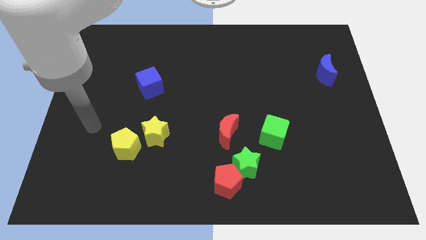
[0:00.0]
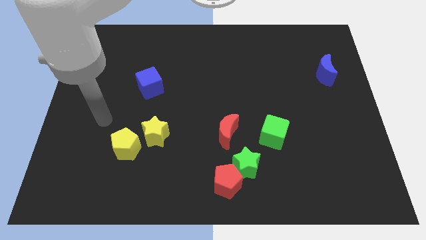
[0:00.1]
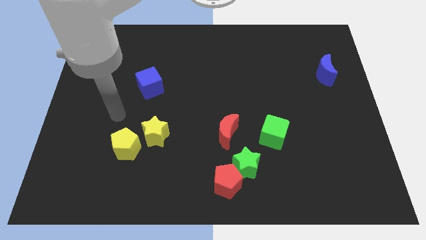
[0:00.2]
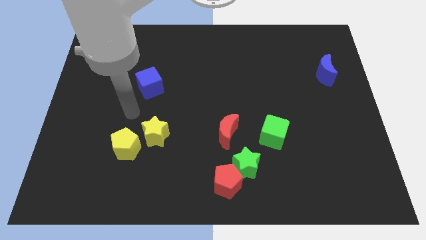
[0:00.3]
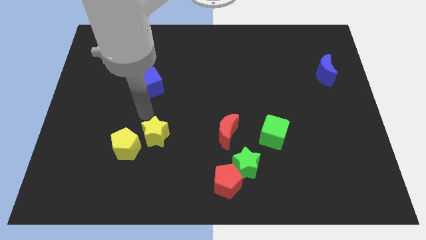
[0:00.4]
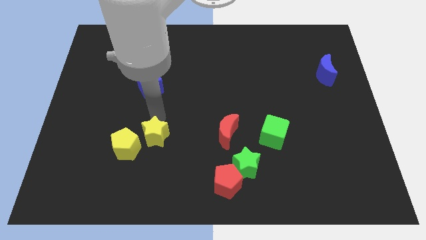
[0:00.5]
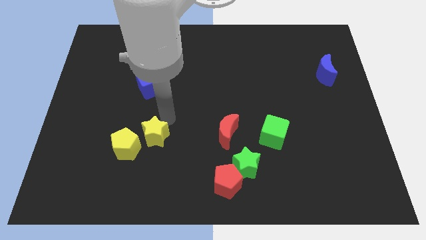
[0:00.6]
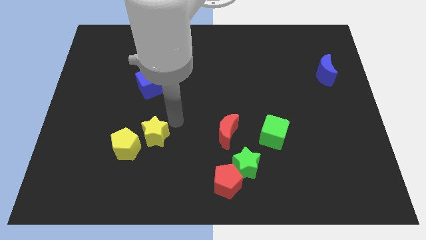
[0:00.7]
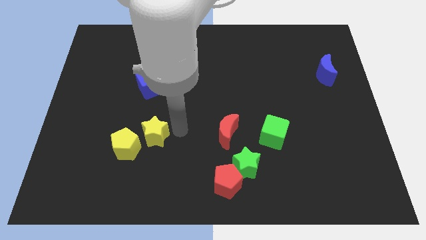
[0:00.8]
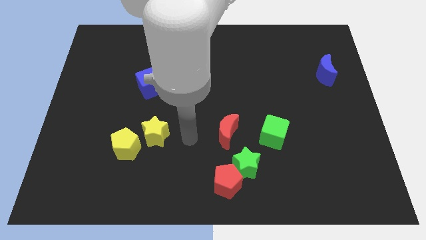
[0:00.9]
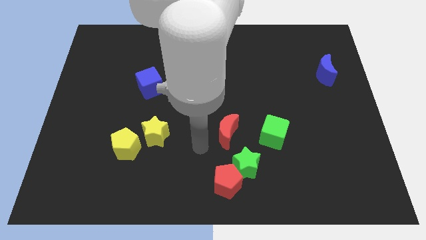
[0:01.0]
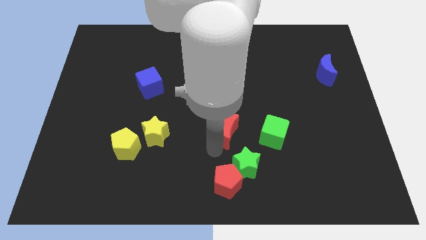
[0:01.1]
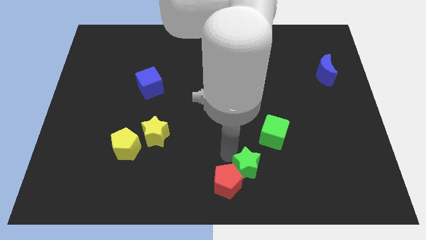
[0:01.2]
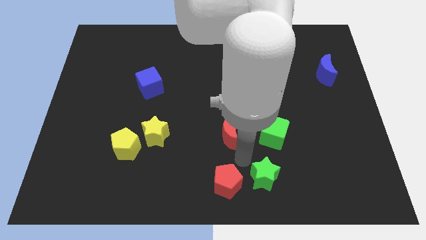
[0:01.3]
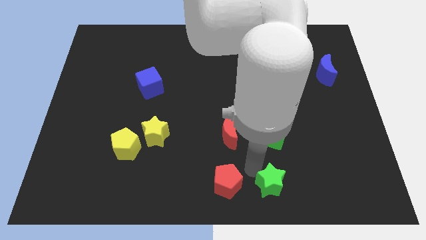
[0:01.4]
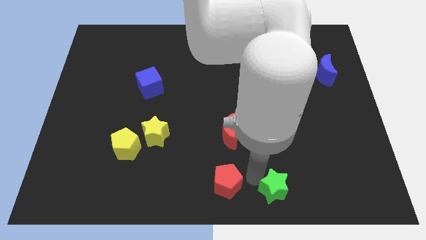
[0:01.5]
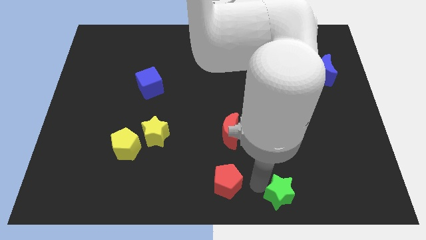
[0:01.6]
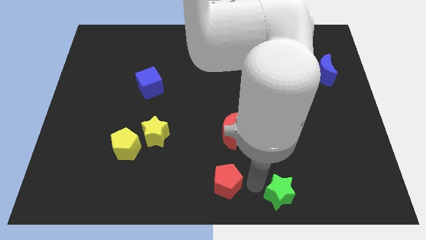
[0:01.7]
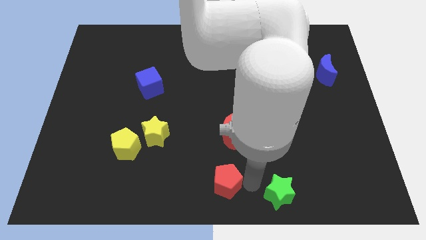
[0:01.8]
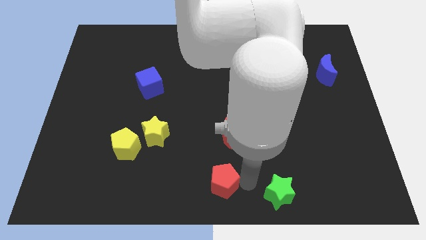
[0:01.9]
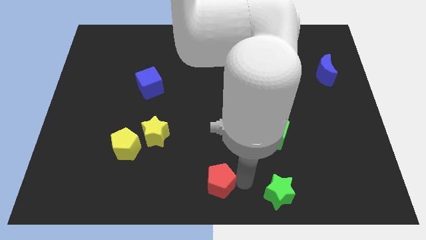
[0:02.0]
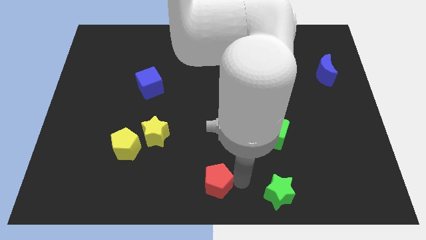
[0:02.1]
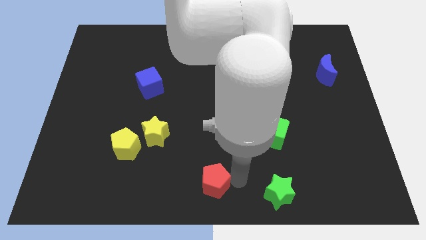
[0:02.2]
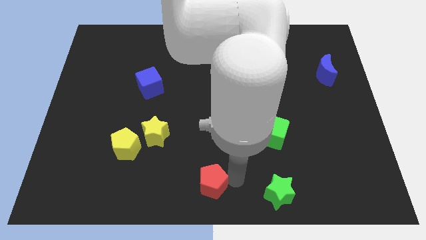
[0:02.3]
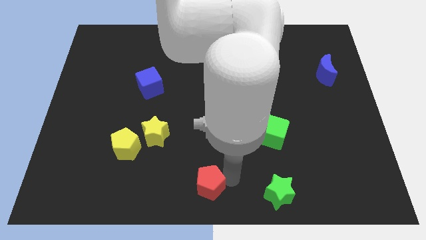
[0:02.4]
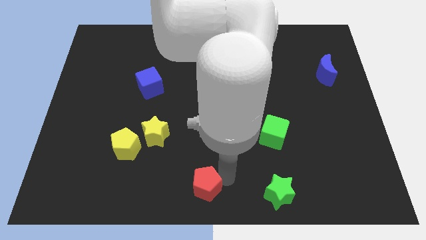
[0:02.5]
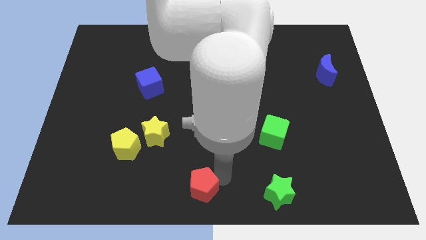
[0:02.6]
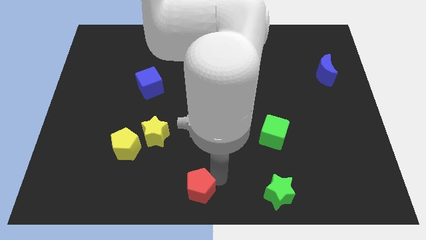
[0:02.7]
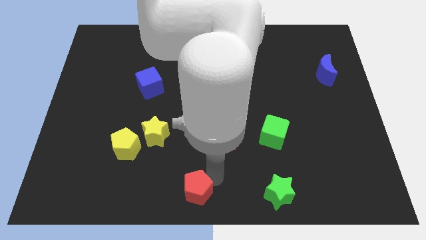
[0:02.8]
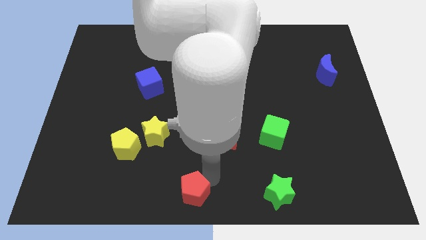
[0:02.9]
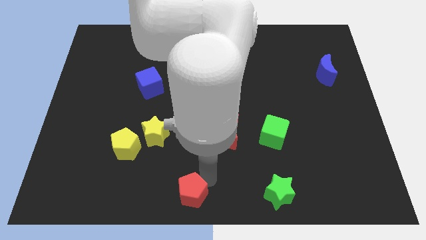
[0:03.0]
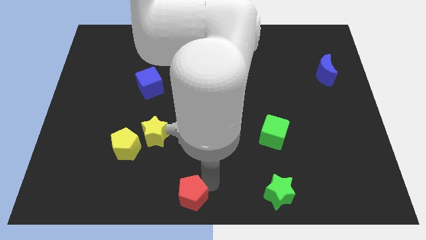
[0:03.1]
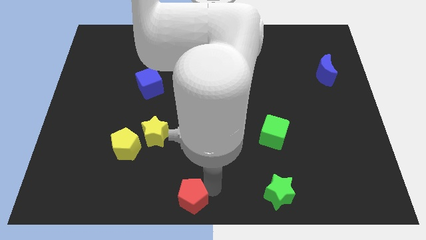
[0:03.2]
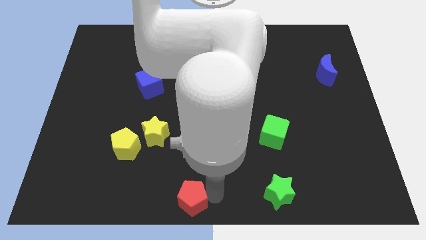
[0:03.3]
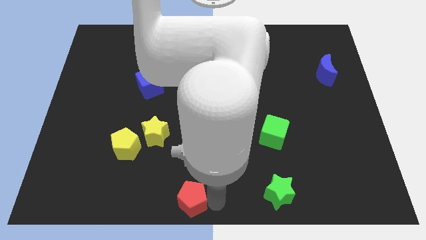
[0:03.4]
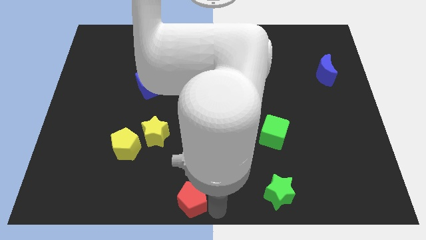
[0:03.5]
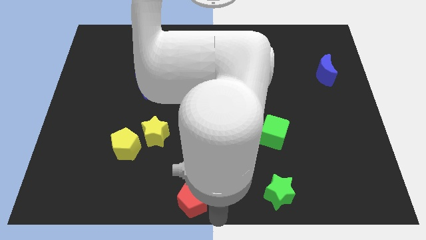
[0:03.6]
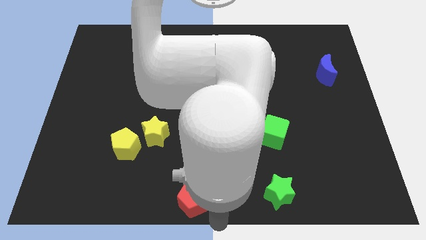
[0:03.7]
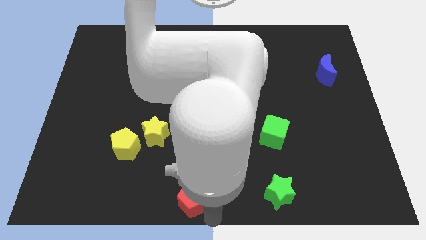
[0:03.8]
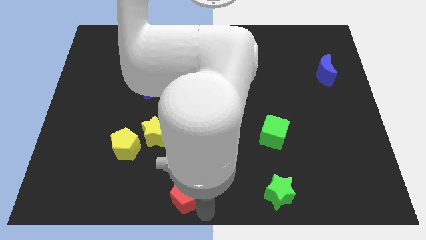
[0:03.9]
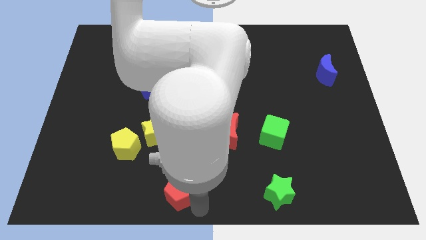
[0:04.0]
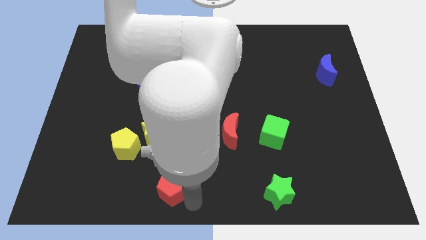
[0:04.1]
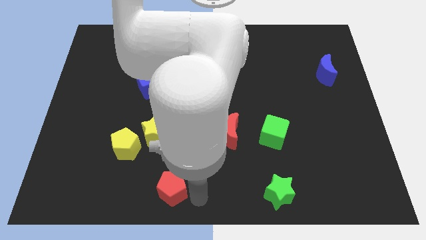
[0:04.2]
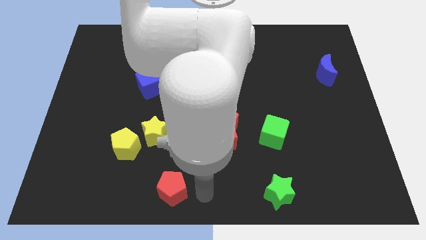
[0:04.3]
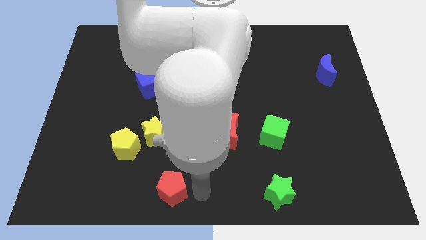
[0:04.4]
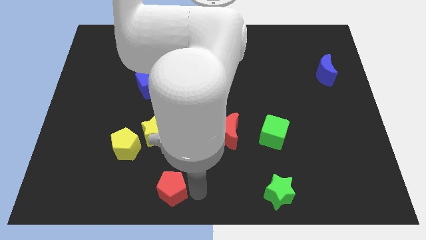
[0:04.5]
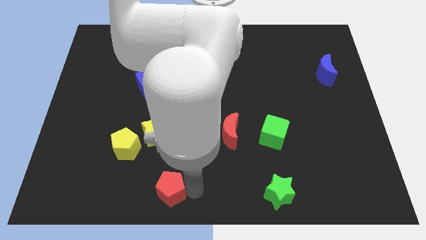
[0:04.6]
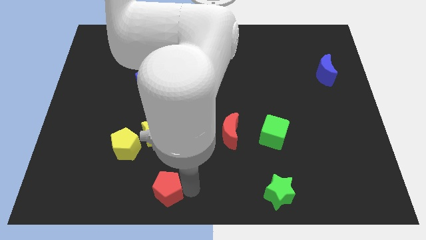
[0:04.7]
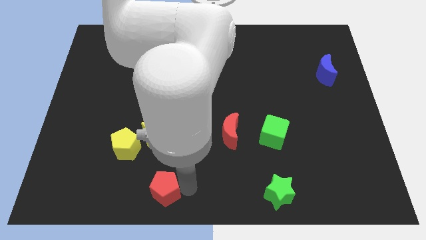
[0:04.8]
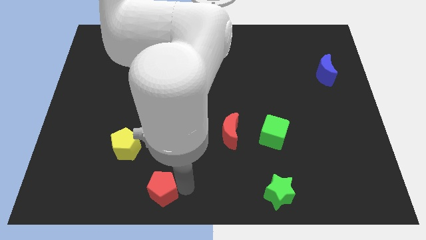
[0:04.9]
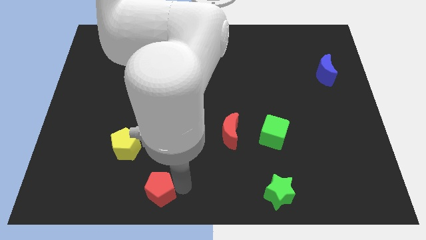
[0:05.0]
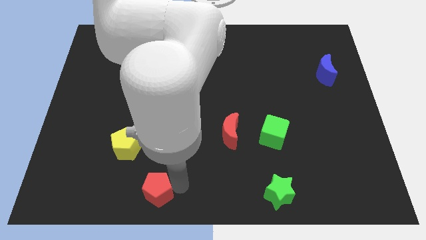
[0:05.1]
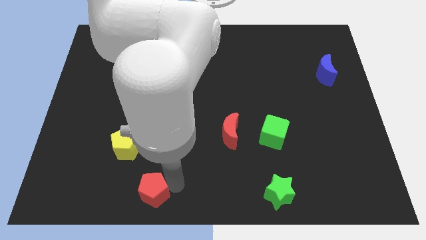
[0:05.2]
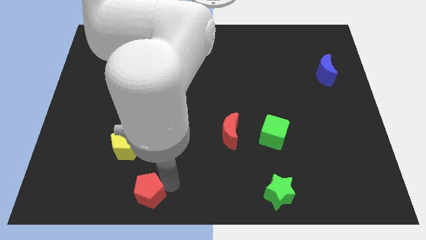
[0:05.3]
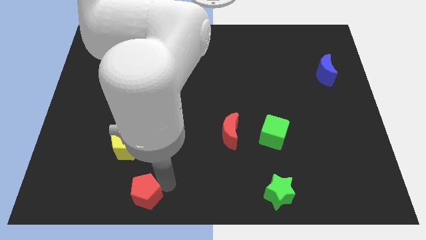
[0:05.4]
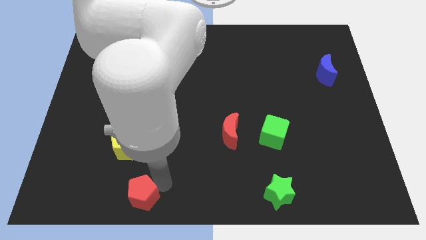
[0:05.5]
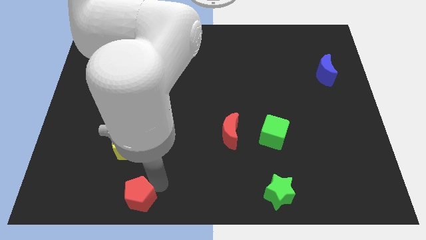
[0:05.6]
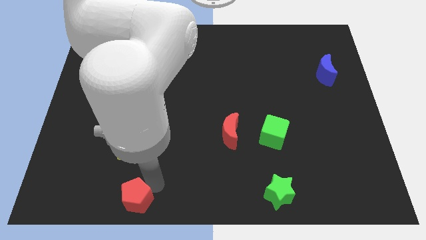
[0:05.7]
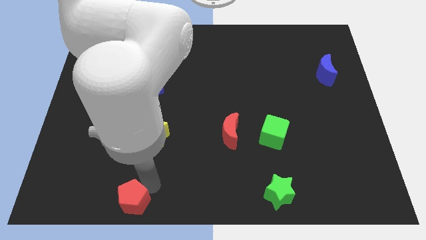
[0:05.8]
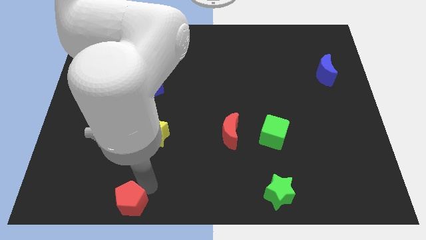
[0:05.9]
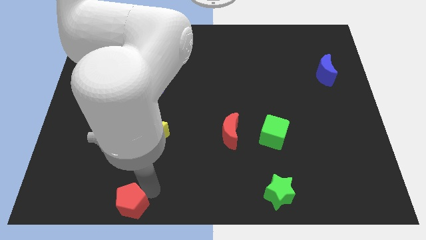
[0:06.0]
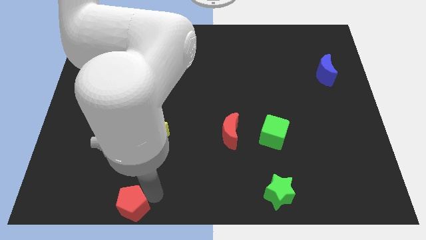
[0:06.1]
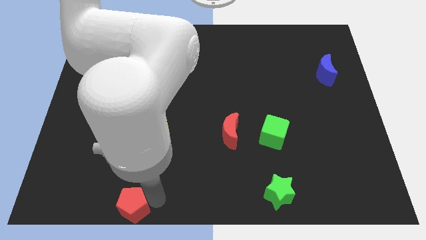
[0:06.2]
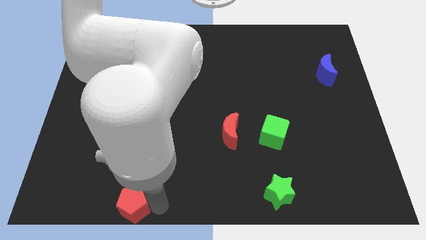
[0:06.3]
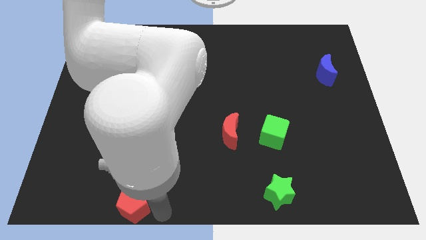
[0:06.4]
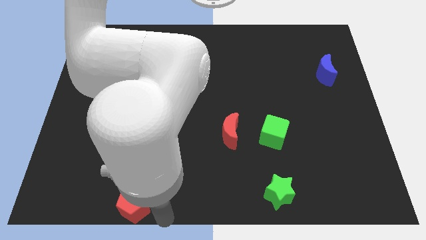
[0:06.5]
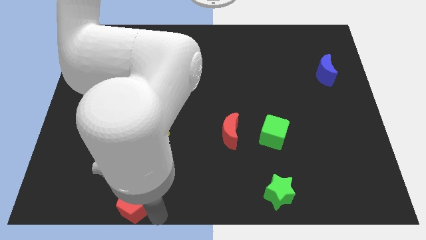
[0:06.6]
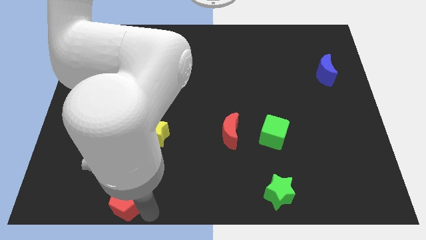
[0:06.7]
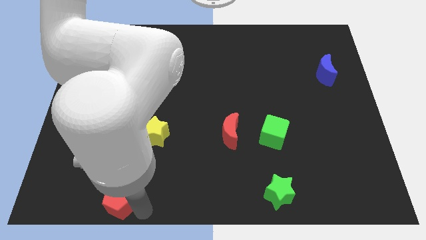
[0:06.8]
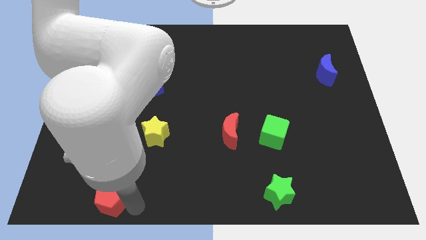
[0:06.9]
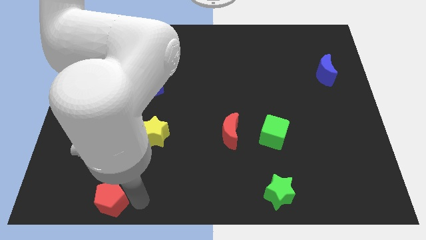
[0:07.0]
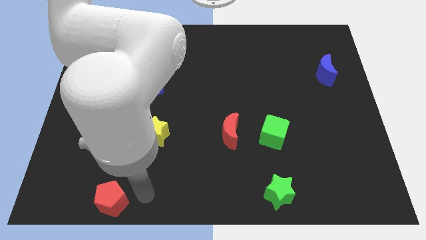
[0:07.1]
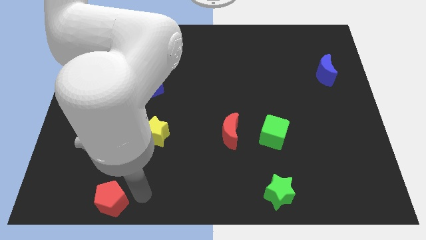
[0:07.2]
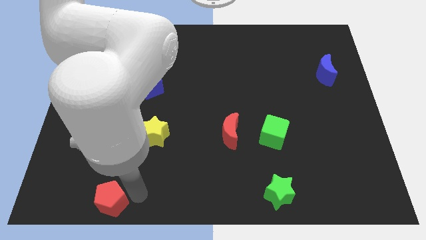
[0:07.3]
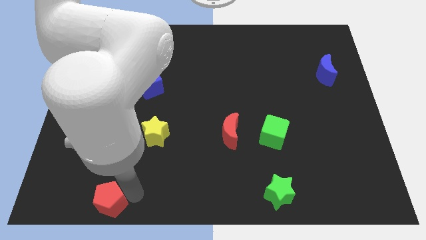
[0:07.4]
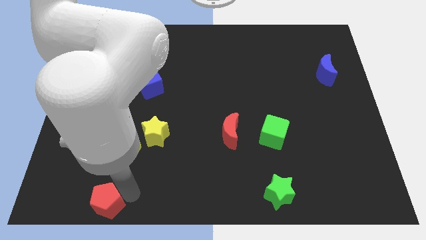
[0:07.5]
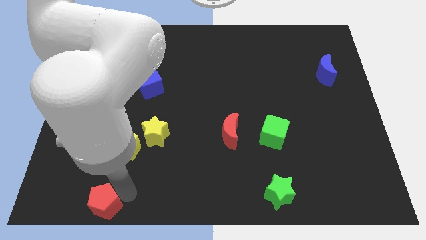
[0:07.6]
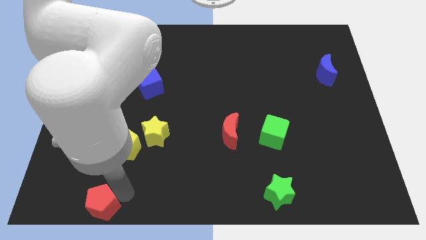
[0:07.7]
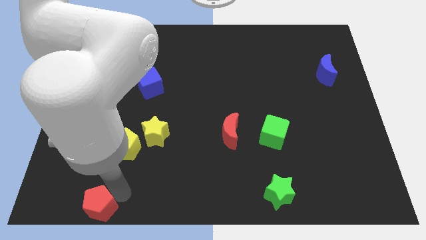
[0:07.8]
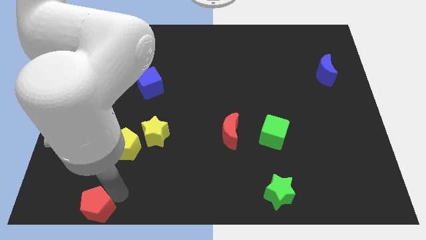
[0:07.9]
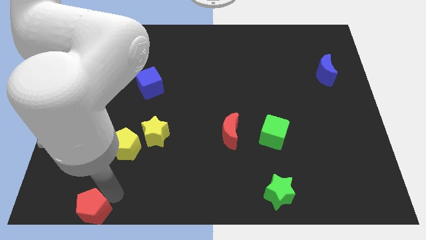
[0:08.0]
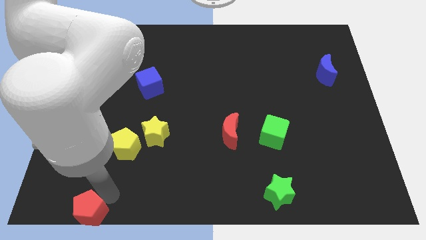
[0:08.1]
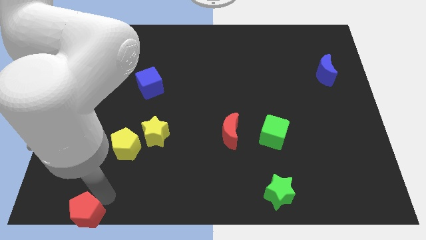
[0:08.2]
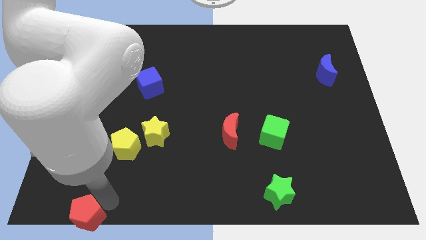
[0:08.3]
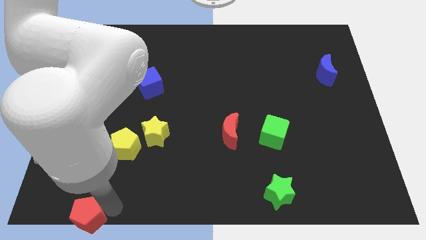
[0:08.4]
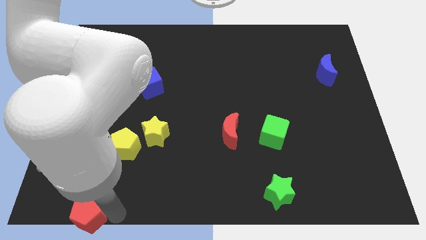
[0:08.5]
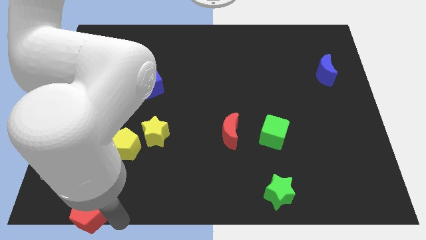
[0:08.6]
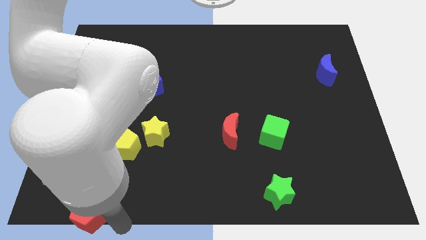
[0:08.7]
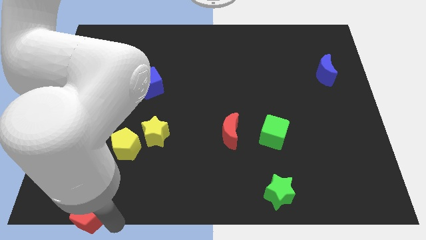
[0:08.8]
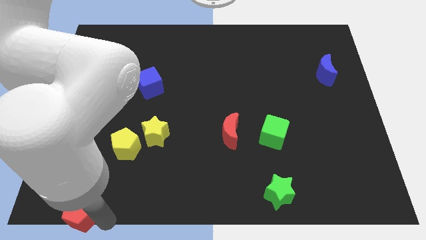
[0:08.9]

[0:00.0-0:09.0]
move the red pentagon to the lower left corner
